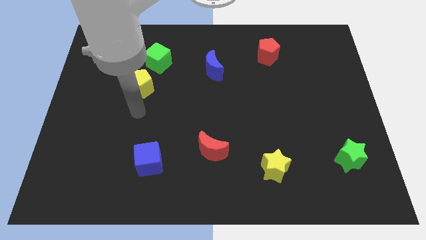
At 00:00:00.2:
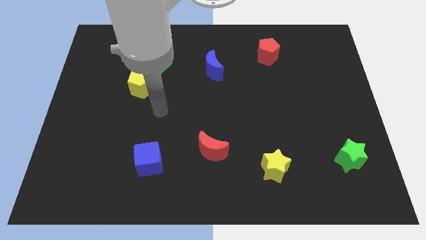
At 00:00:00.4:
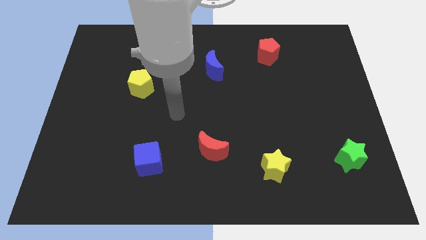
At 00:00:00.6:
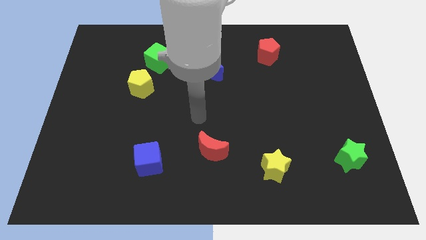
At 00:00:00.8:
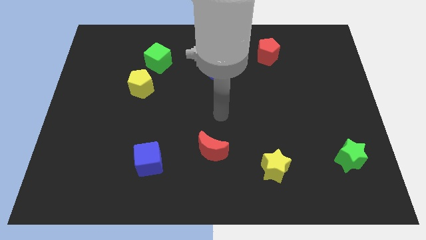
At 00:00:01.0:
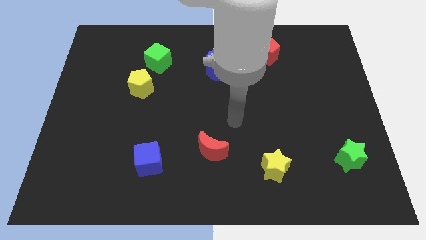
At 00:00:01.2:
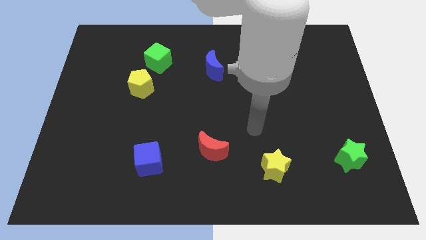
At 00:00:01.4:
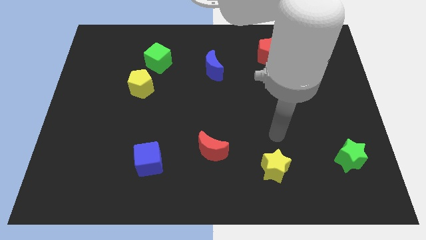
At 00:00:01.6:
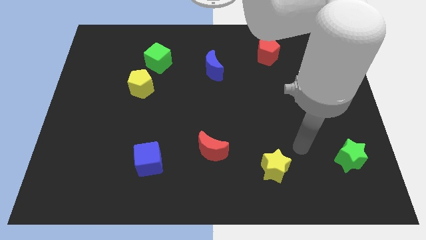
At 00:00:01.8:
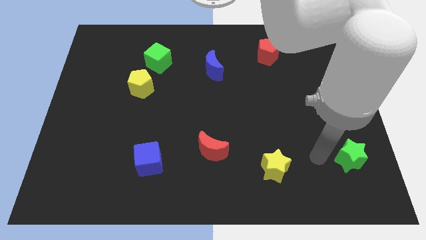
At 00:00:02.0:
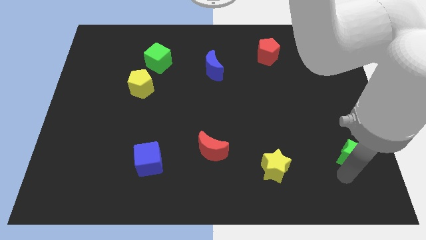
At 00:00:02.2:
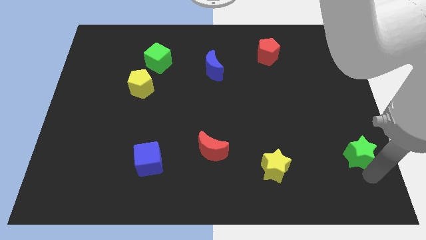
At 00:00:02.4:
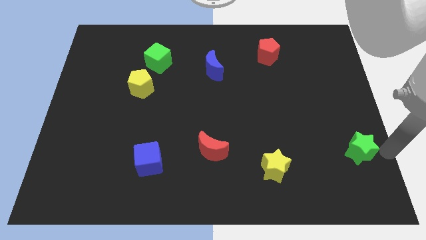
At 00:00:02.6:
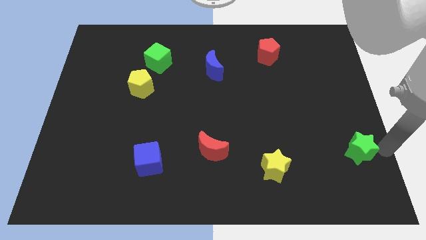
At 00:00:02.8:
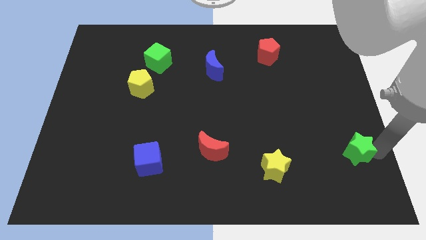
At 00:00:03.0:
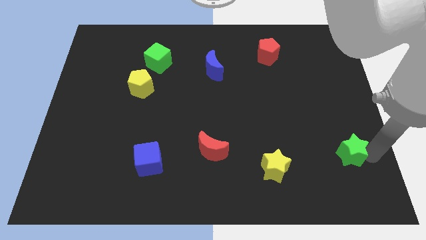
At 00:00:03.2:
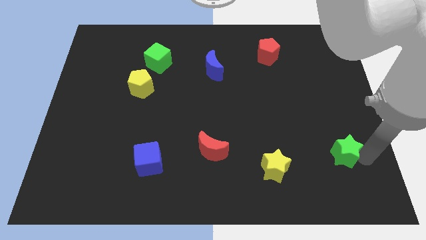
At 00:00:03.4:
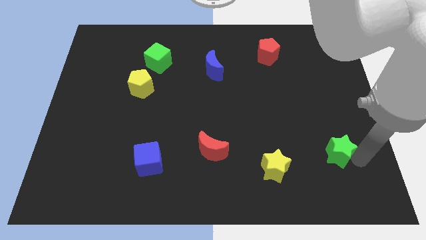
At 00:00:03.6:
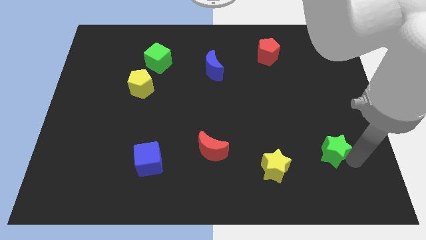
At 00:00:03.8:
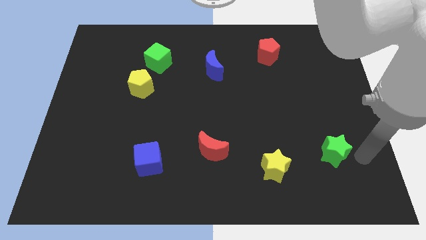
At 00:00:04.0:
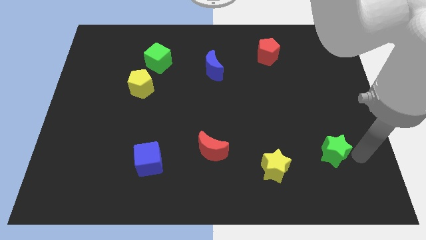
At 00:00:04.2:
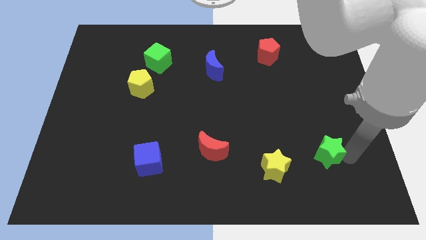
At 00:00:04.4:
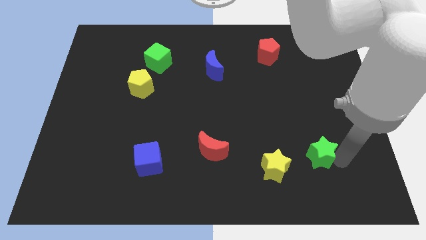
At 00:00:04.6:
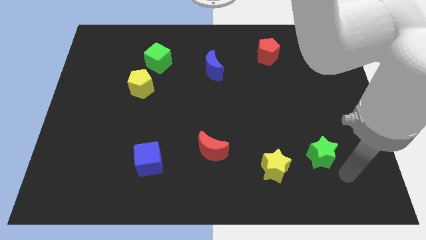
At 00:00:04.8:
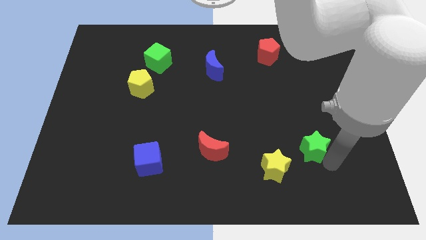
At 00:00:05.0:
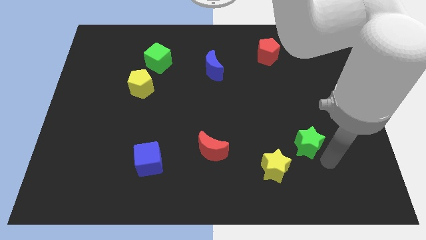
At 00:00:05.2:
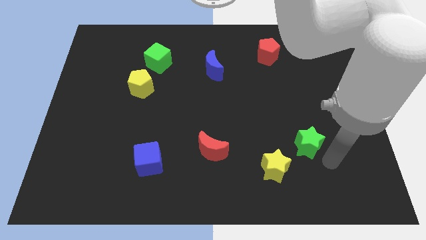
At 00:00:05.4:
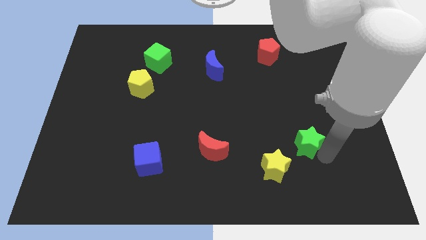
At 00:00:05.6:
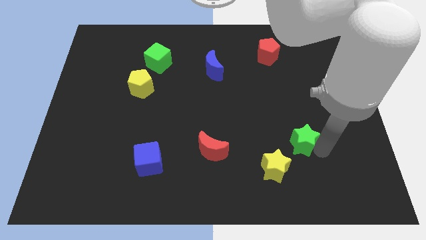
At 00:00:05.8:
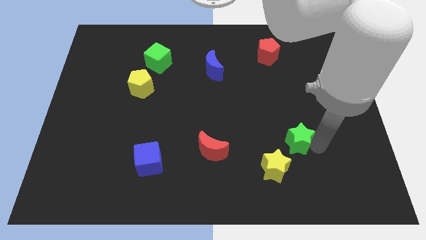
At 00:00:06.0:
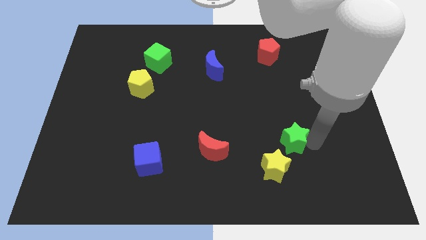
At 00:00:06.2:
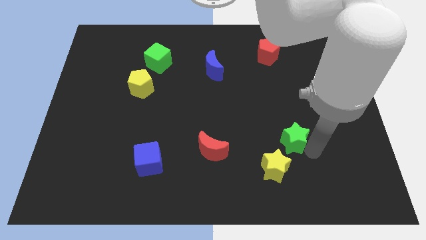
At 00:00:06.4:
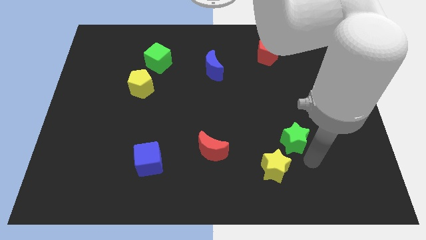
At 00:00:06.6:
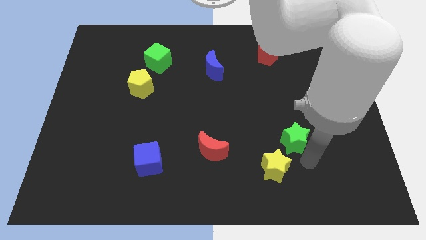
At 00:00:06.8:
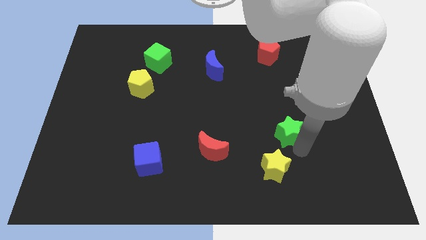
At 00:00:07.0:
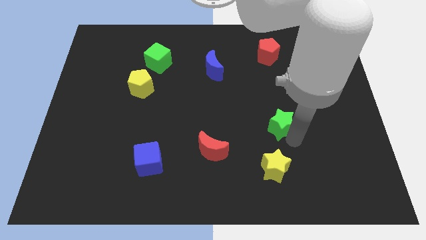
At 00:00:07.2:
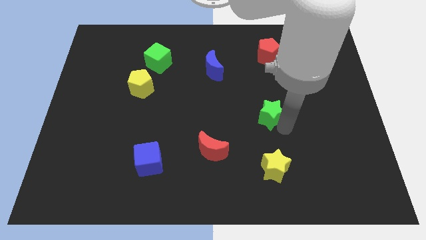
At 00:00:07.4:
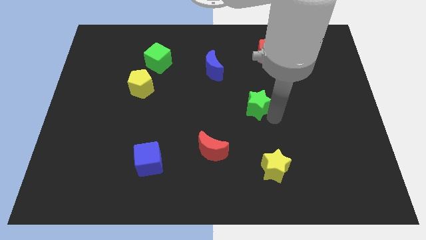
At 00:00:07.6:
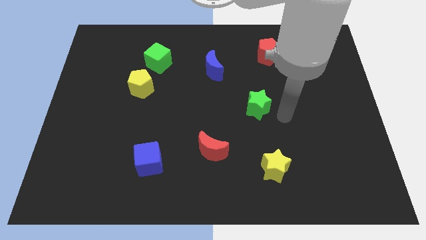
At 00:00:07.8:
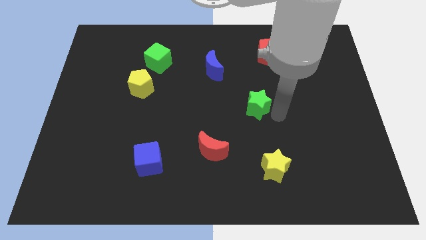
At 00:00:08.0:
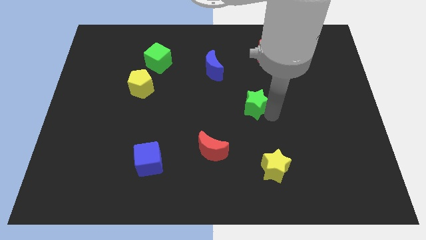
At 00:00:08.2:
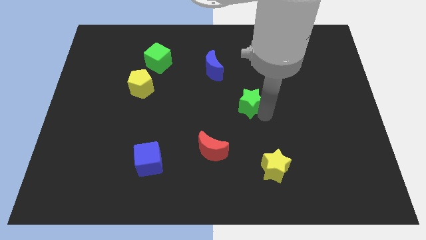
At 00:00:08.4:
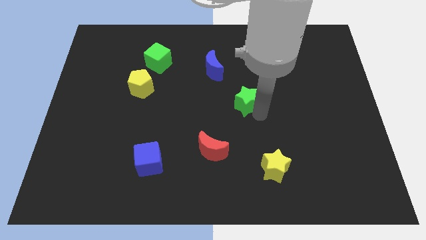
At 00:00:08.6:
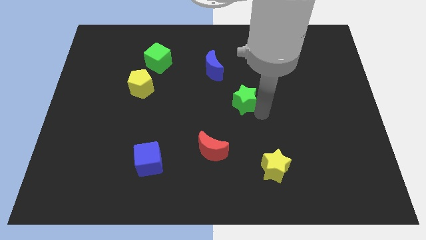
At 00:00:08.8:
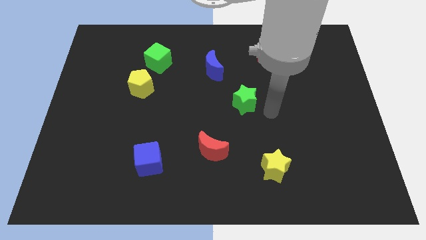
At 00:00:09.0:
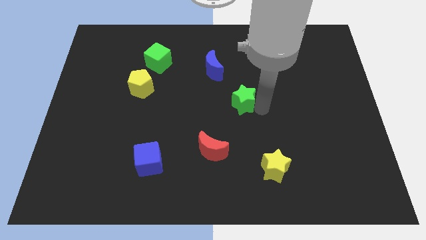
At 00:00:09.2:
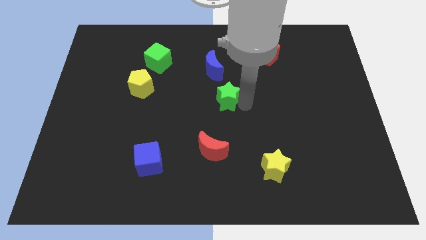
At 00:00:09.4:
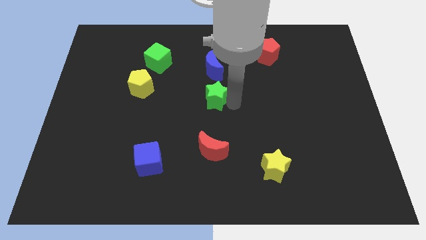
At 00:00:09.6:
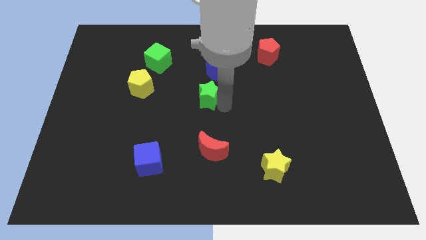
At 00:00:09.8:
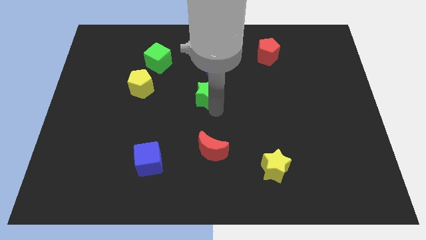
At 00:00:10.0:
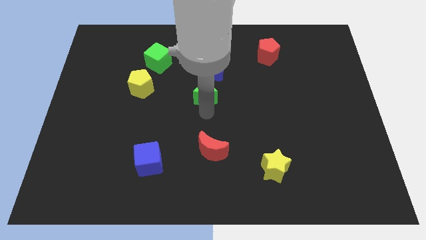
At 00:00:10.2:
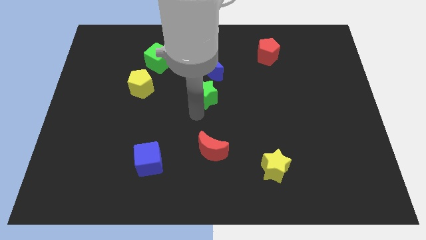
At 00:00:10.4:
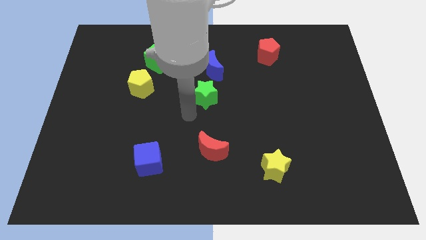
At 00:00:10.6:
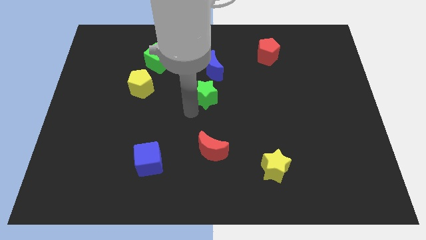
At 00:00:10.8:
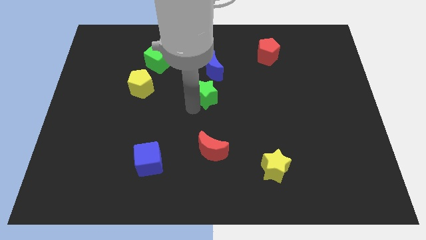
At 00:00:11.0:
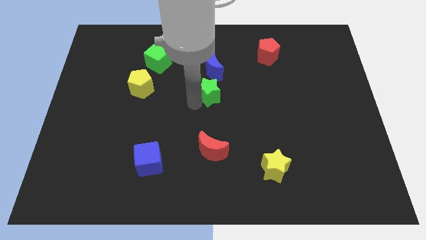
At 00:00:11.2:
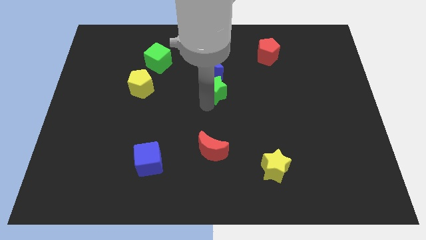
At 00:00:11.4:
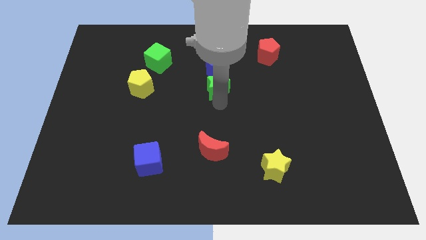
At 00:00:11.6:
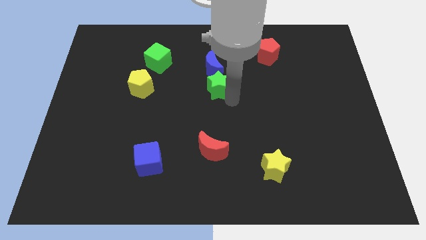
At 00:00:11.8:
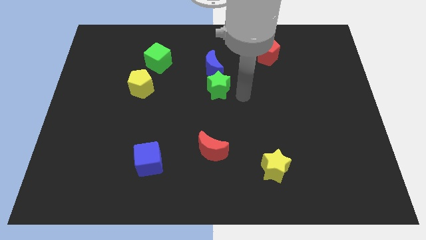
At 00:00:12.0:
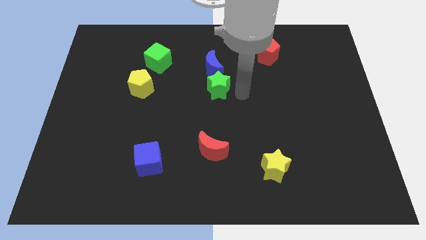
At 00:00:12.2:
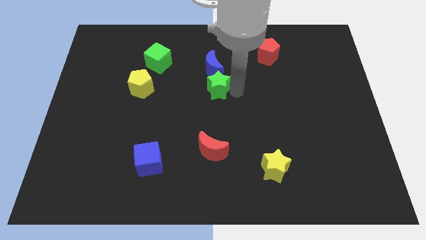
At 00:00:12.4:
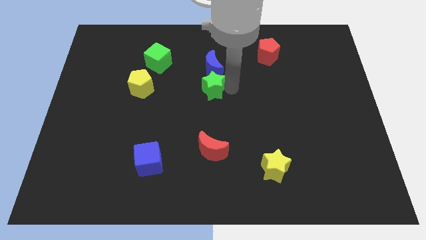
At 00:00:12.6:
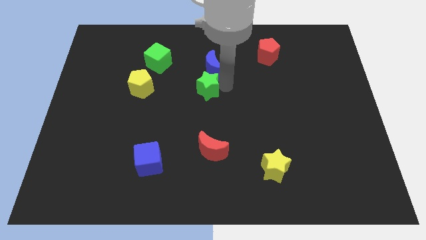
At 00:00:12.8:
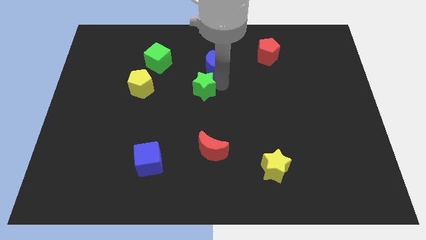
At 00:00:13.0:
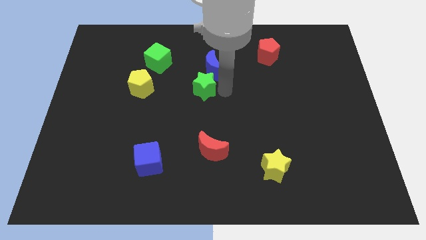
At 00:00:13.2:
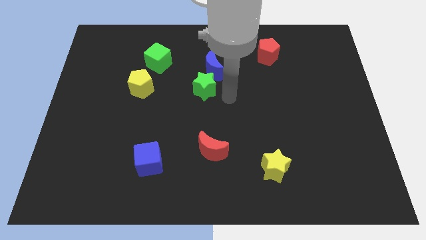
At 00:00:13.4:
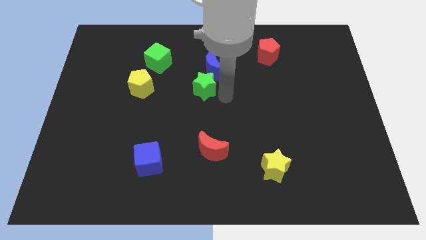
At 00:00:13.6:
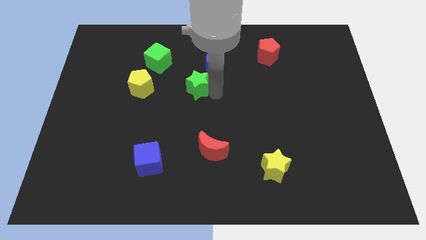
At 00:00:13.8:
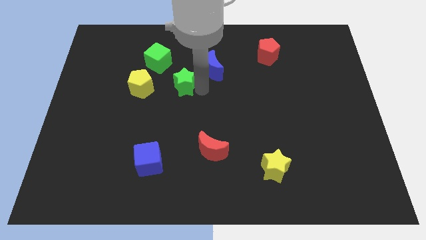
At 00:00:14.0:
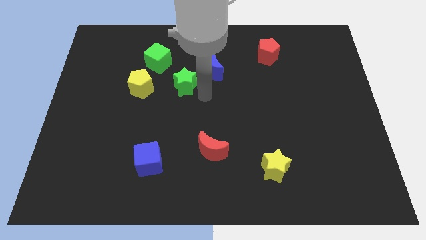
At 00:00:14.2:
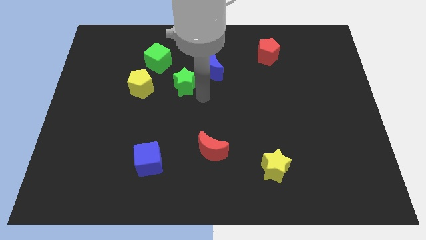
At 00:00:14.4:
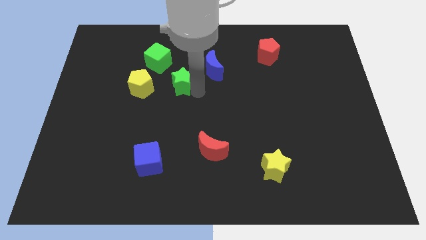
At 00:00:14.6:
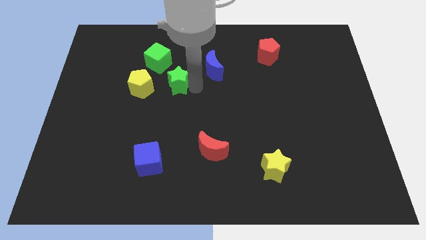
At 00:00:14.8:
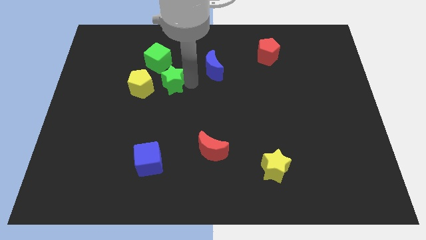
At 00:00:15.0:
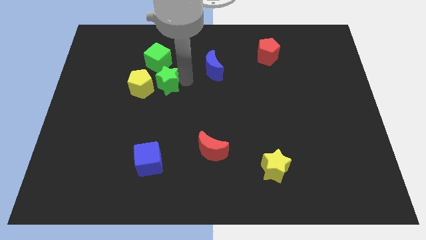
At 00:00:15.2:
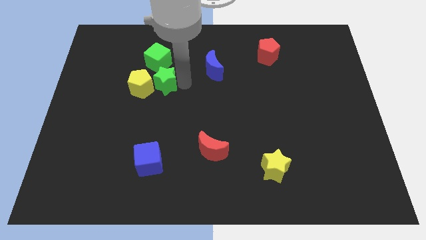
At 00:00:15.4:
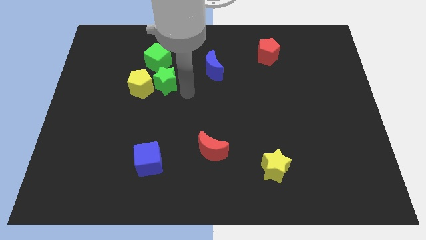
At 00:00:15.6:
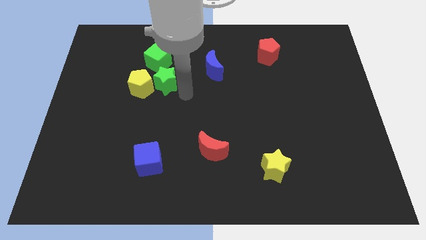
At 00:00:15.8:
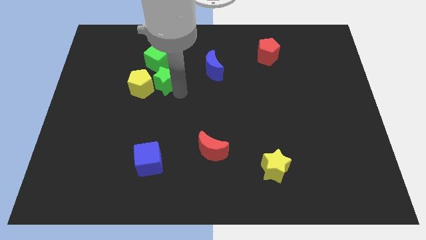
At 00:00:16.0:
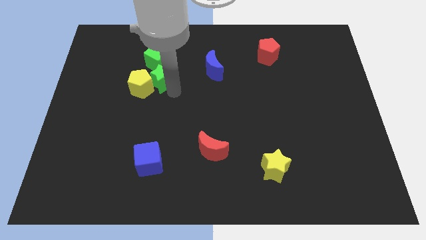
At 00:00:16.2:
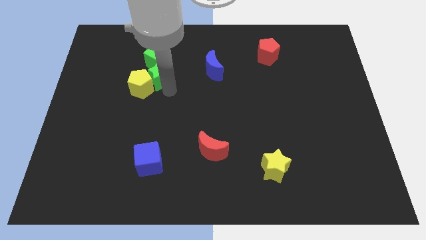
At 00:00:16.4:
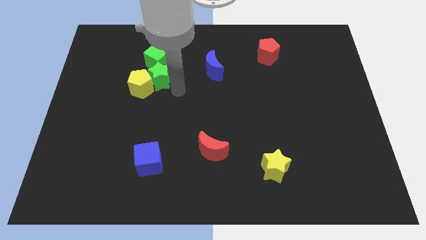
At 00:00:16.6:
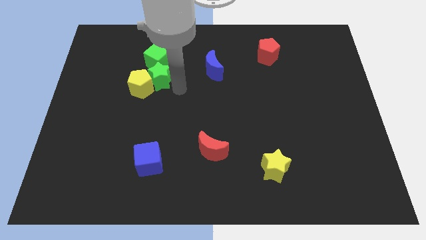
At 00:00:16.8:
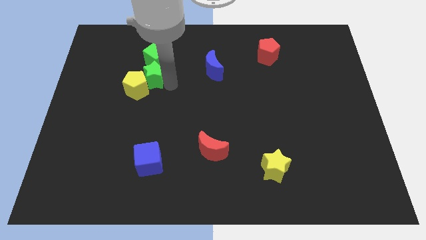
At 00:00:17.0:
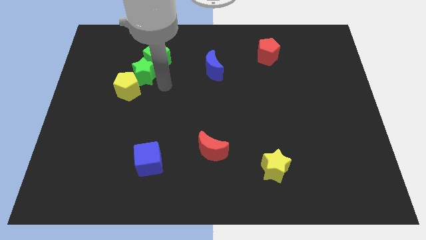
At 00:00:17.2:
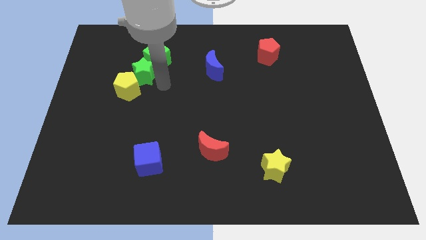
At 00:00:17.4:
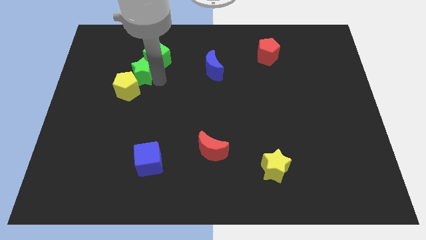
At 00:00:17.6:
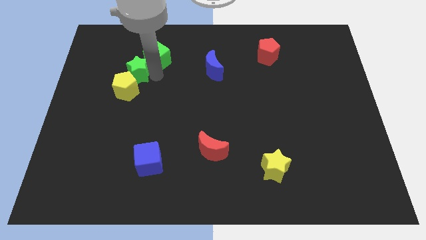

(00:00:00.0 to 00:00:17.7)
put the green star to the left side of the green cube
